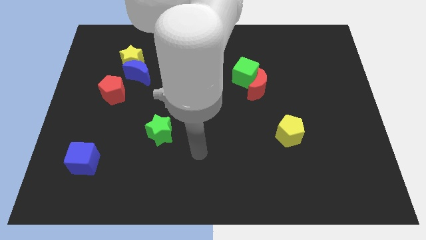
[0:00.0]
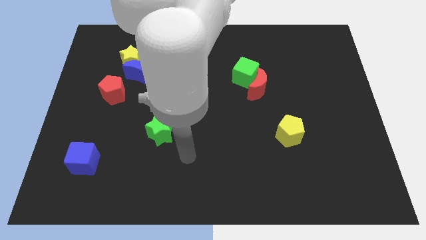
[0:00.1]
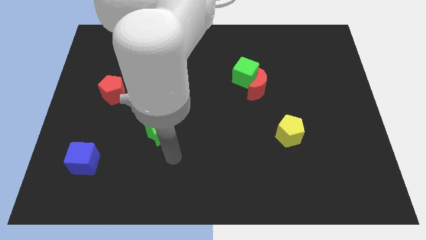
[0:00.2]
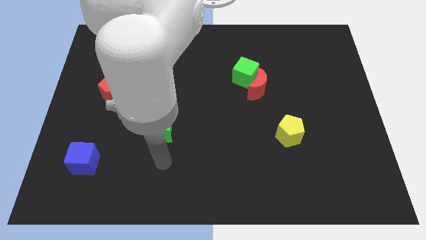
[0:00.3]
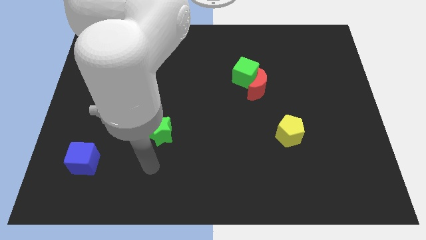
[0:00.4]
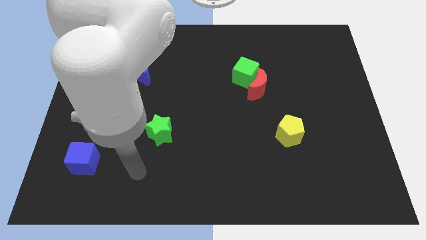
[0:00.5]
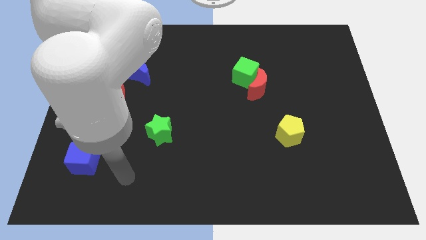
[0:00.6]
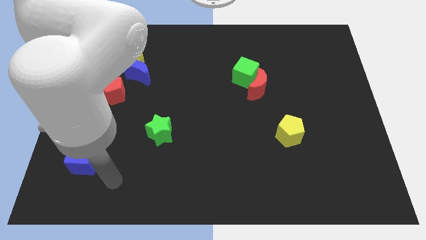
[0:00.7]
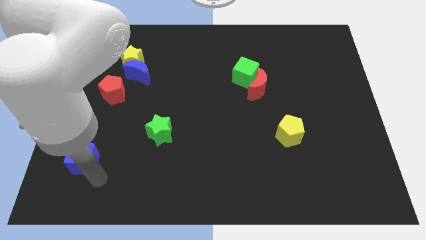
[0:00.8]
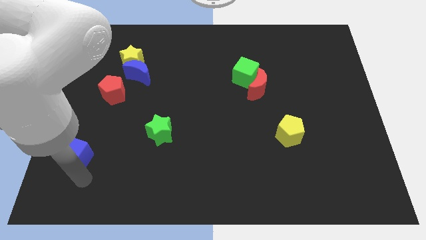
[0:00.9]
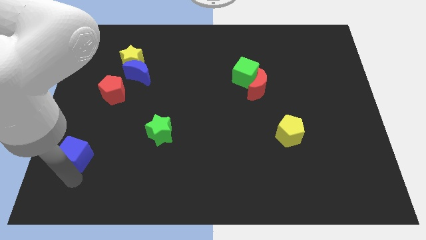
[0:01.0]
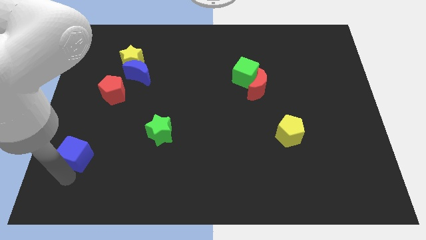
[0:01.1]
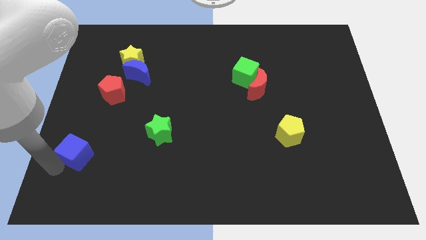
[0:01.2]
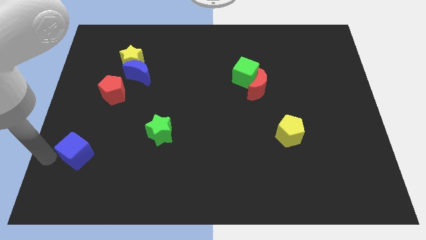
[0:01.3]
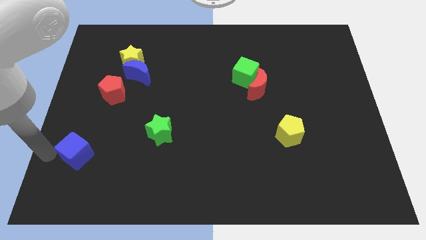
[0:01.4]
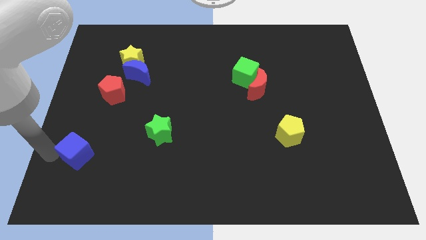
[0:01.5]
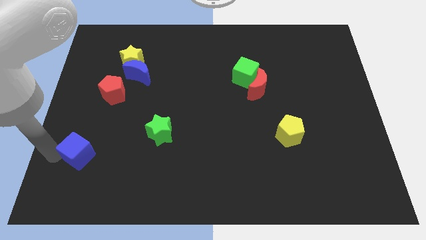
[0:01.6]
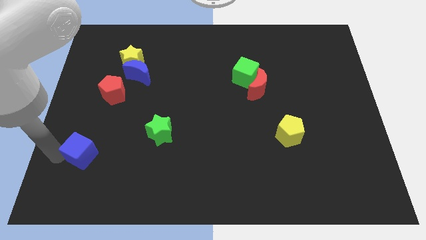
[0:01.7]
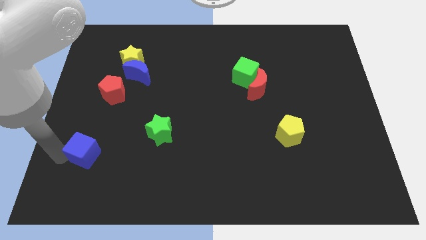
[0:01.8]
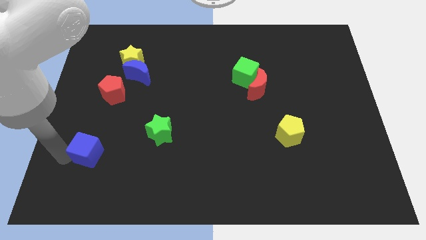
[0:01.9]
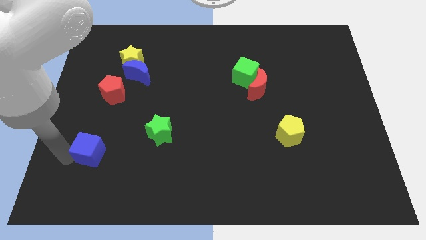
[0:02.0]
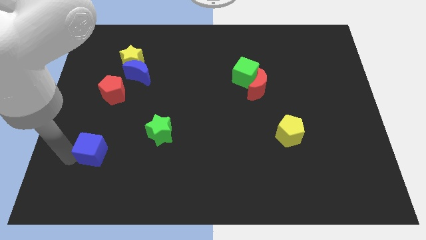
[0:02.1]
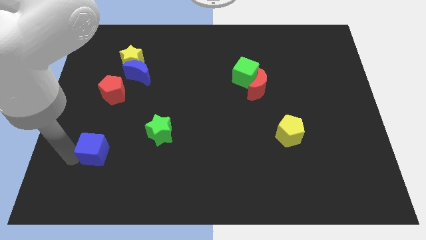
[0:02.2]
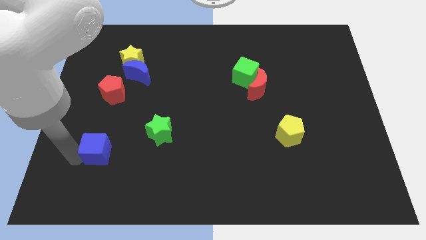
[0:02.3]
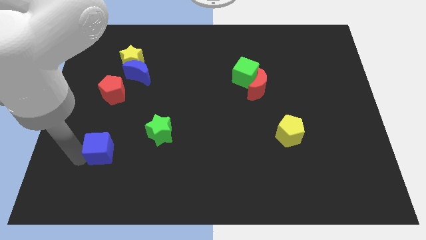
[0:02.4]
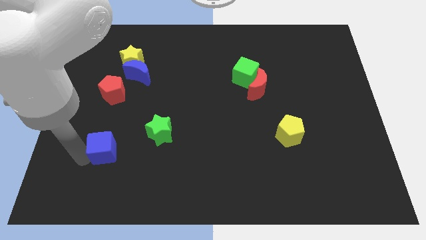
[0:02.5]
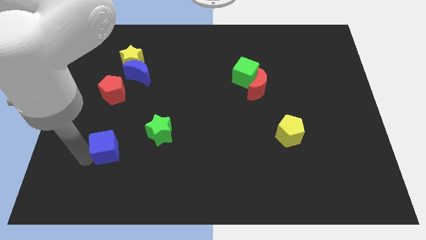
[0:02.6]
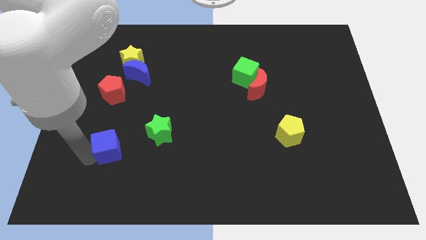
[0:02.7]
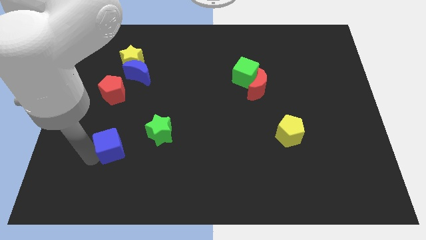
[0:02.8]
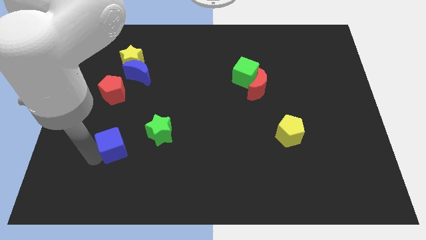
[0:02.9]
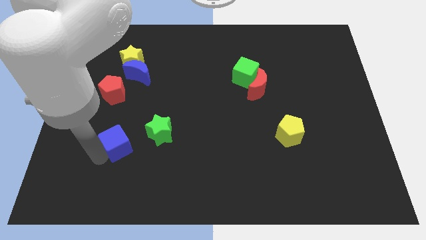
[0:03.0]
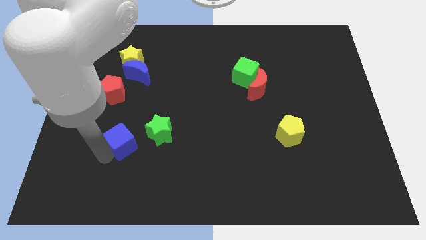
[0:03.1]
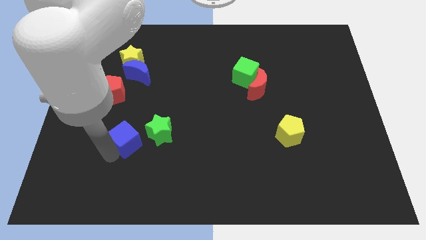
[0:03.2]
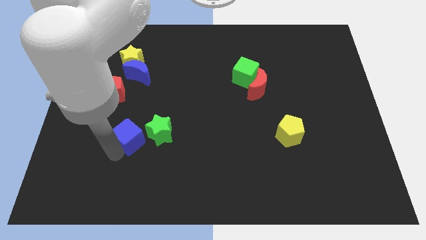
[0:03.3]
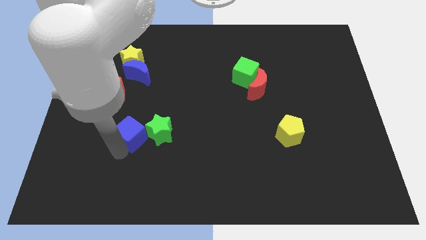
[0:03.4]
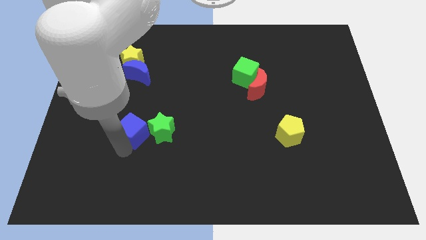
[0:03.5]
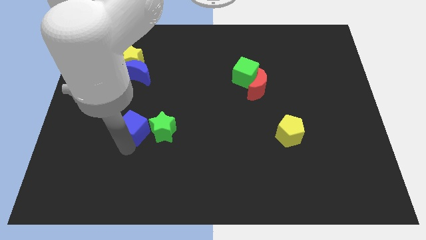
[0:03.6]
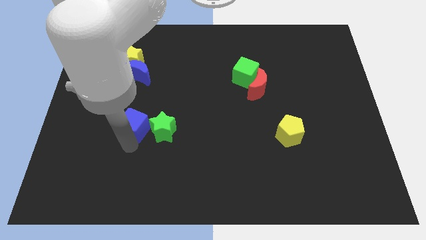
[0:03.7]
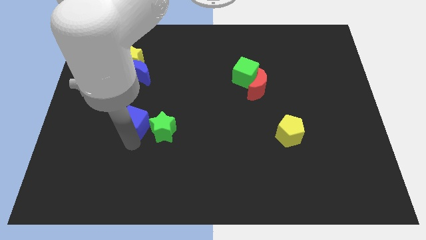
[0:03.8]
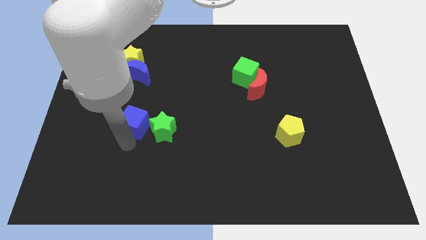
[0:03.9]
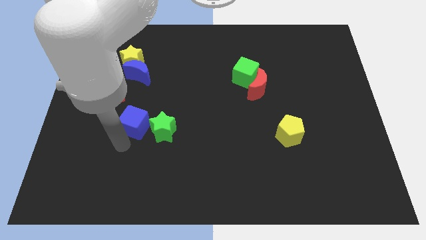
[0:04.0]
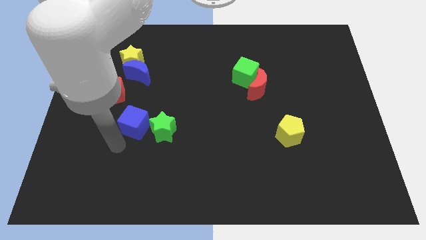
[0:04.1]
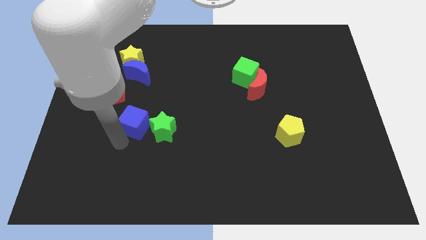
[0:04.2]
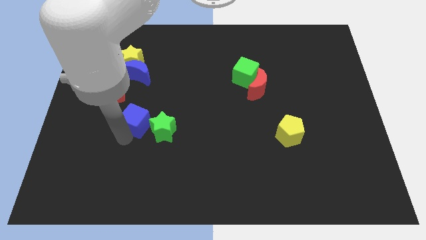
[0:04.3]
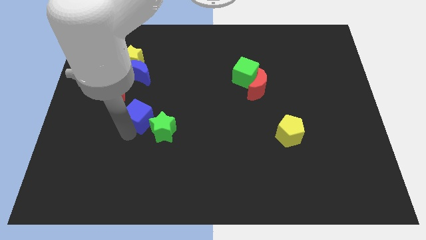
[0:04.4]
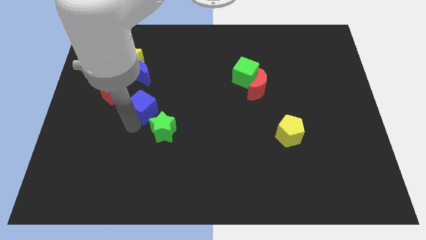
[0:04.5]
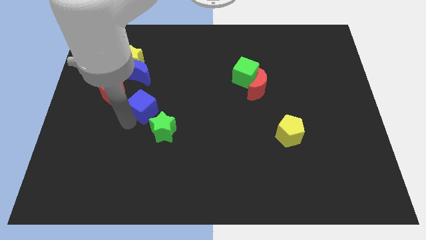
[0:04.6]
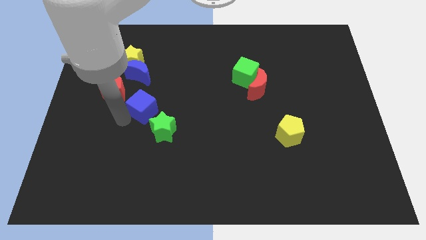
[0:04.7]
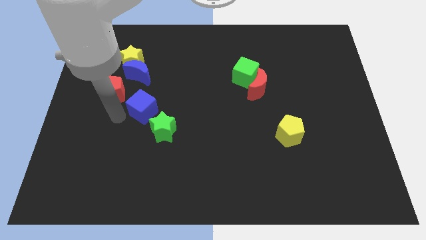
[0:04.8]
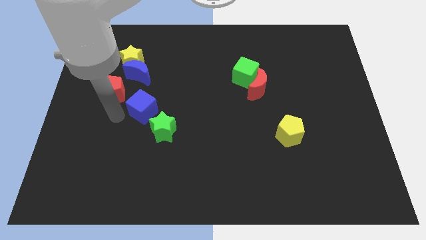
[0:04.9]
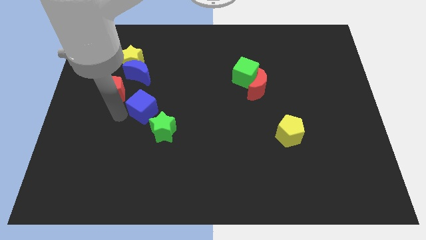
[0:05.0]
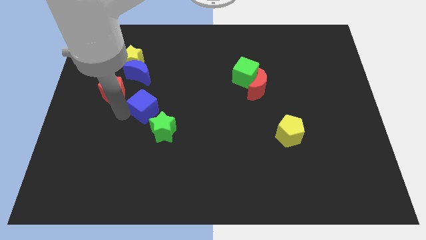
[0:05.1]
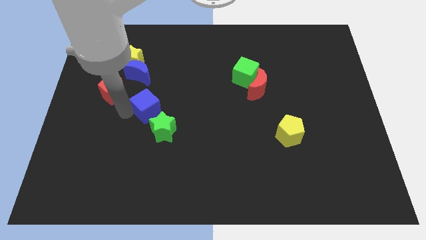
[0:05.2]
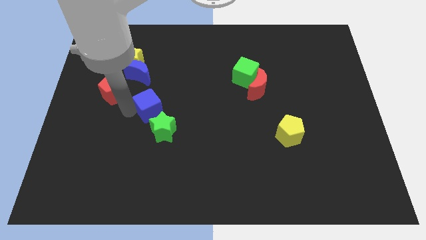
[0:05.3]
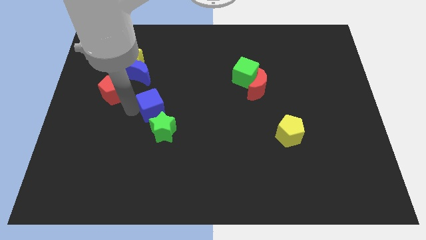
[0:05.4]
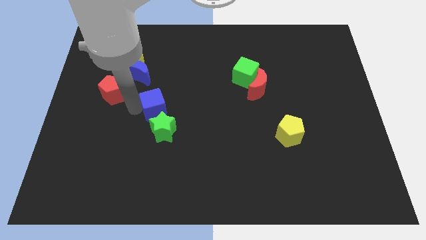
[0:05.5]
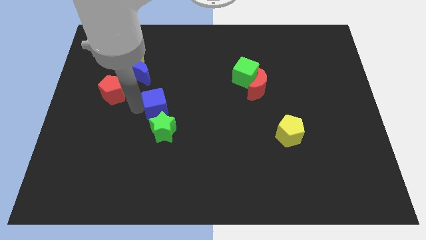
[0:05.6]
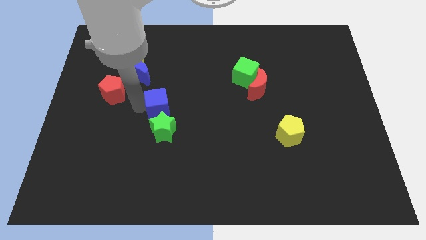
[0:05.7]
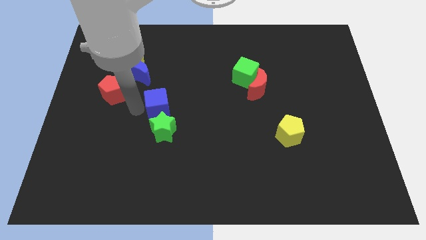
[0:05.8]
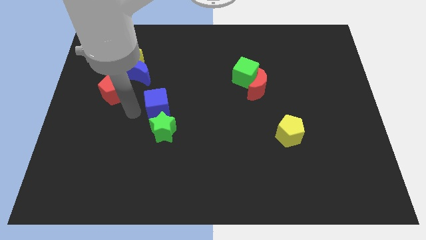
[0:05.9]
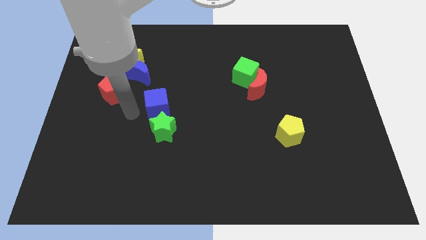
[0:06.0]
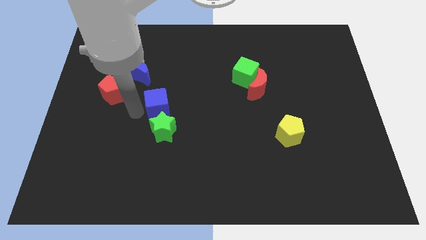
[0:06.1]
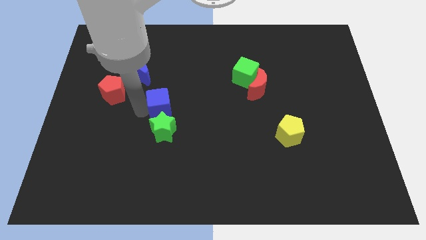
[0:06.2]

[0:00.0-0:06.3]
put the blue cube to the middle
